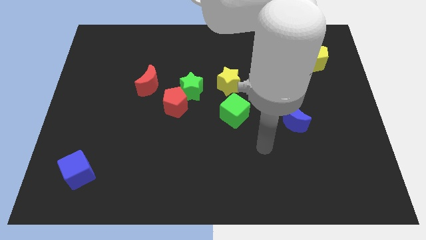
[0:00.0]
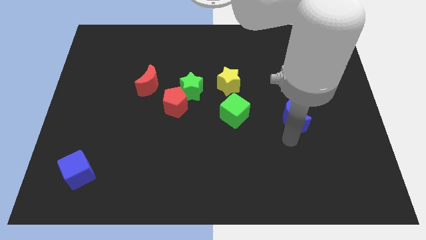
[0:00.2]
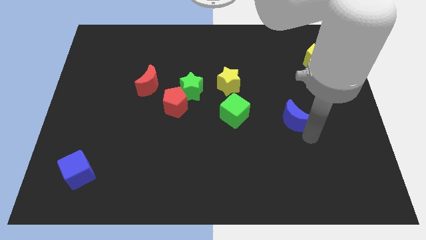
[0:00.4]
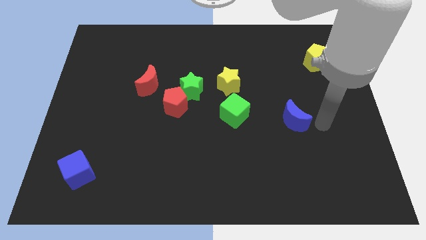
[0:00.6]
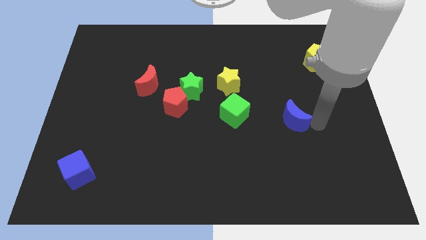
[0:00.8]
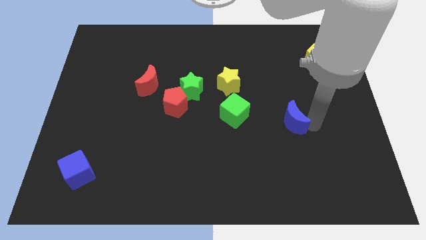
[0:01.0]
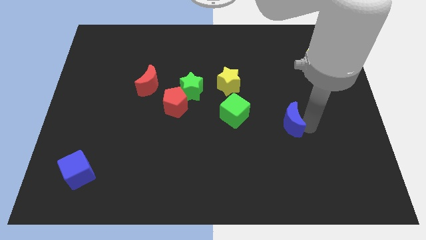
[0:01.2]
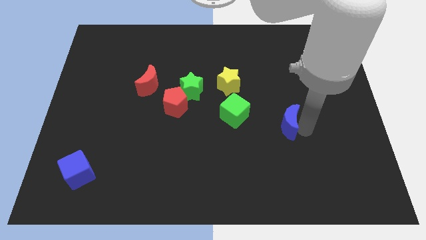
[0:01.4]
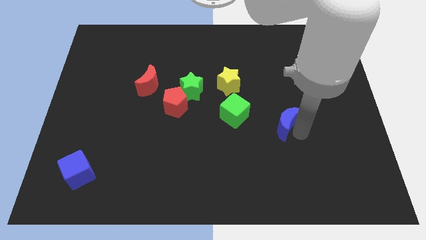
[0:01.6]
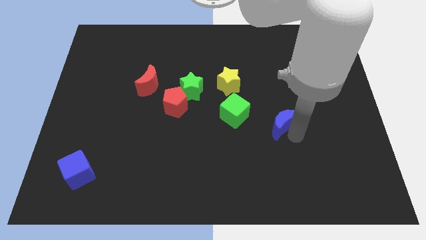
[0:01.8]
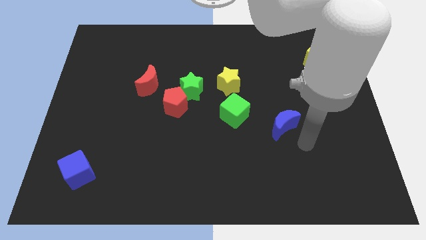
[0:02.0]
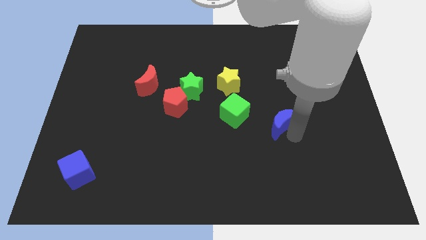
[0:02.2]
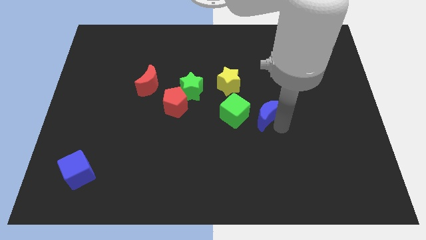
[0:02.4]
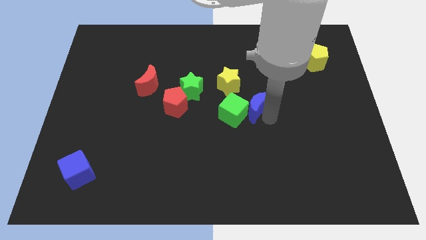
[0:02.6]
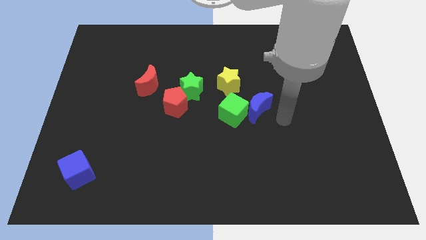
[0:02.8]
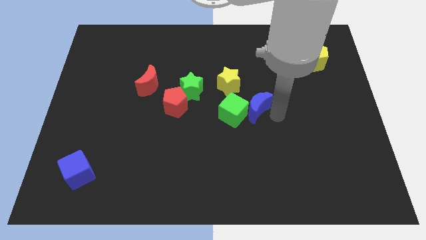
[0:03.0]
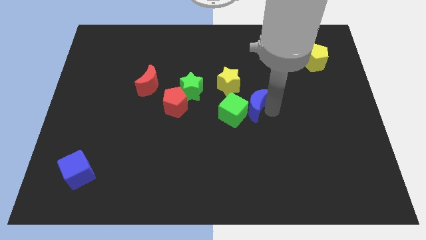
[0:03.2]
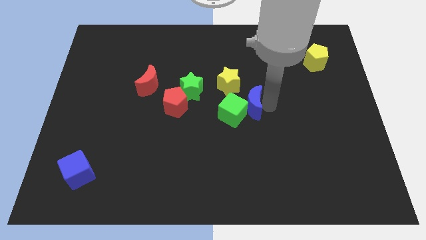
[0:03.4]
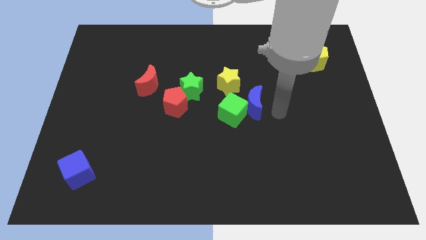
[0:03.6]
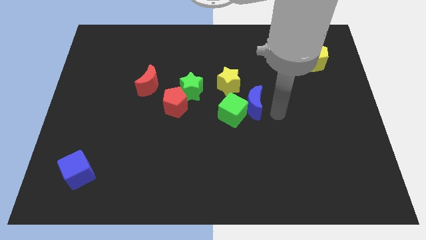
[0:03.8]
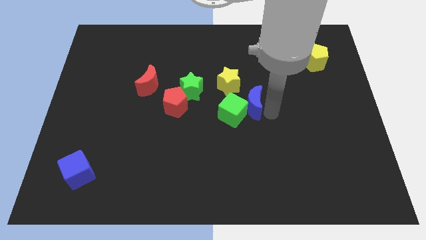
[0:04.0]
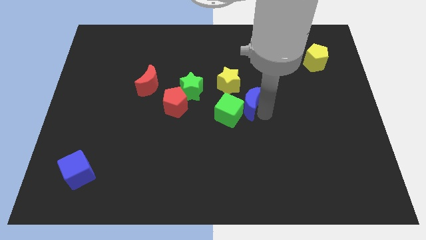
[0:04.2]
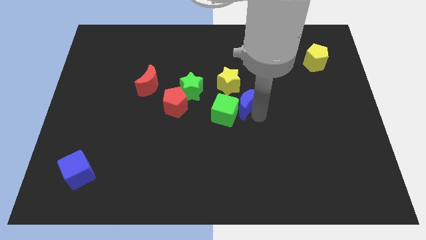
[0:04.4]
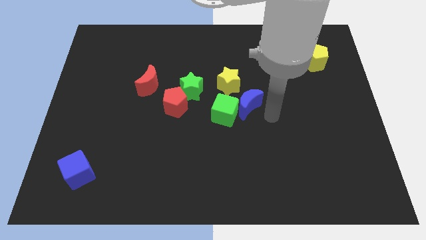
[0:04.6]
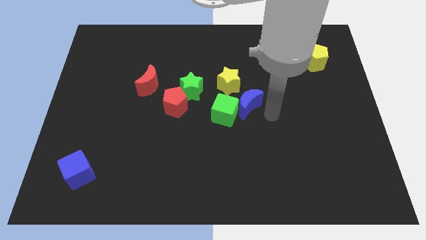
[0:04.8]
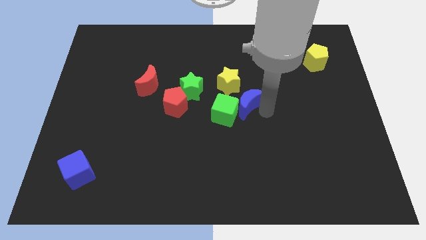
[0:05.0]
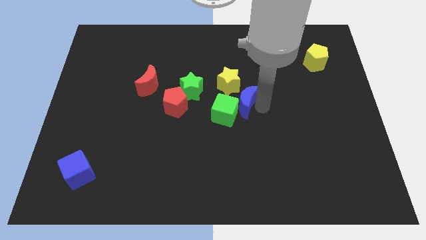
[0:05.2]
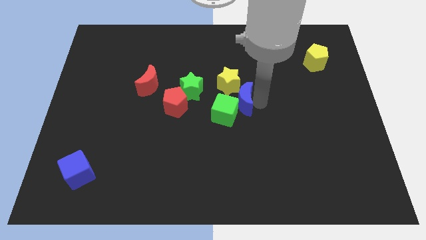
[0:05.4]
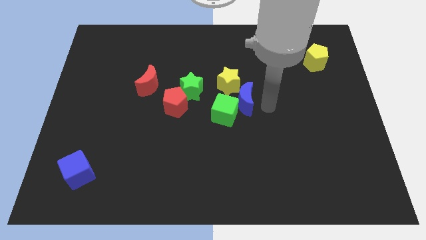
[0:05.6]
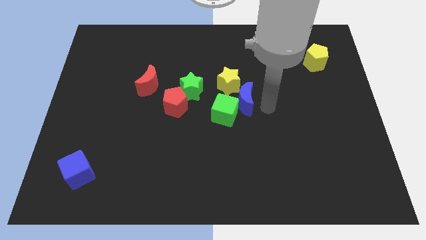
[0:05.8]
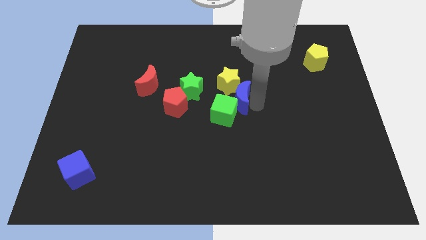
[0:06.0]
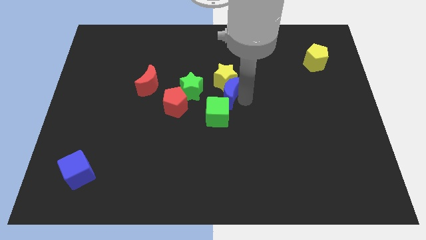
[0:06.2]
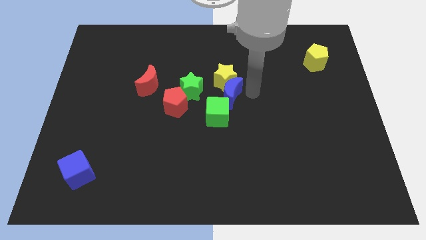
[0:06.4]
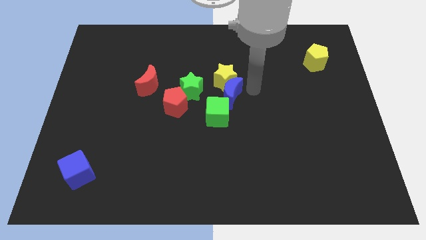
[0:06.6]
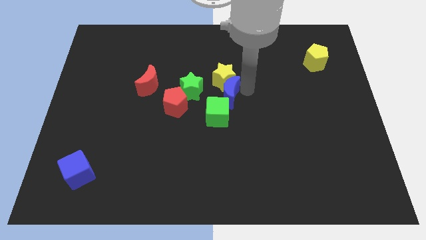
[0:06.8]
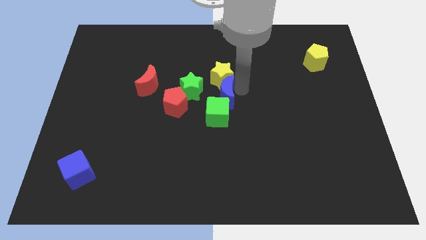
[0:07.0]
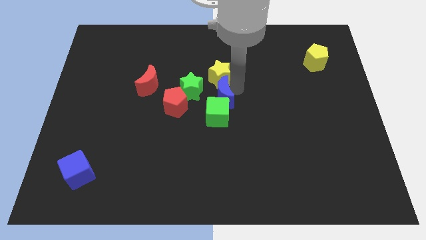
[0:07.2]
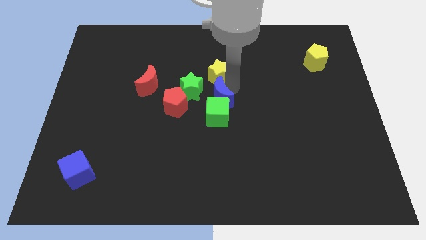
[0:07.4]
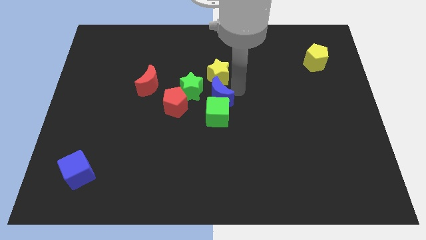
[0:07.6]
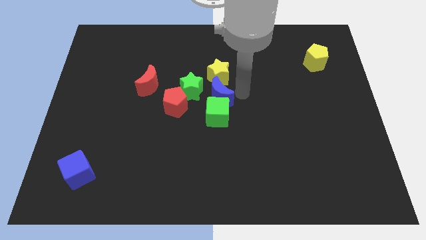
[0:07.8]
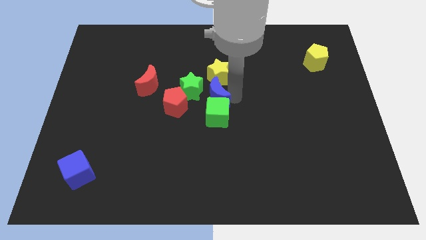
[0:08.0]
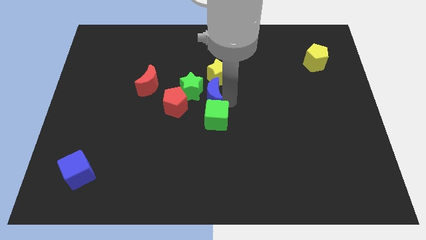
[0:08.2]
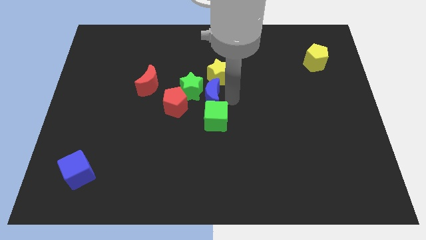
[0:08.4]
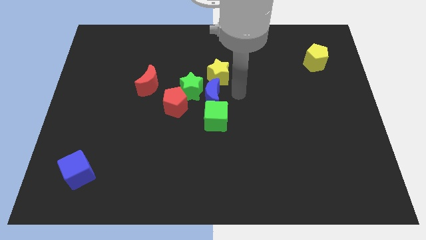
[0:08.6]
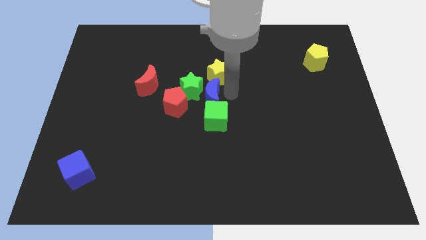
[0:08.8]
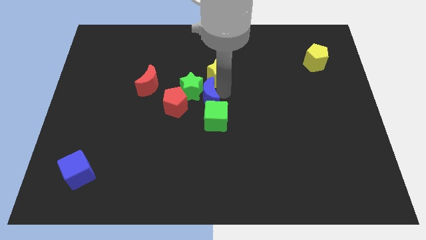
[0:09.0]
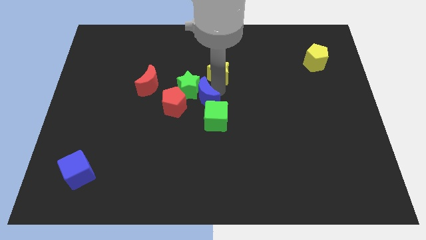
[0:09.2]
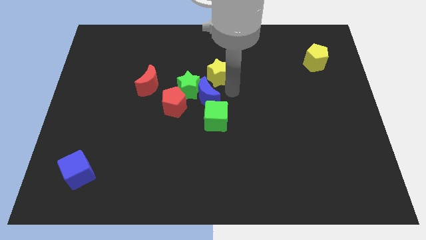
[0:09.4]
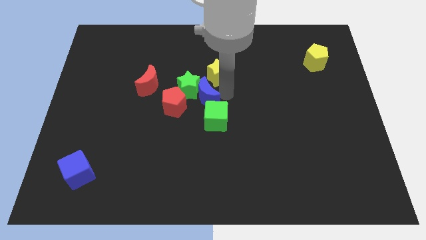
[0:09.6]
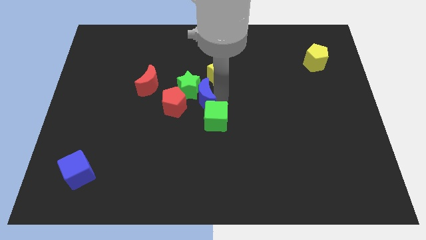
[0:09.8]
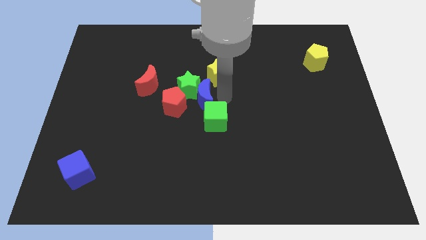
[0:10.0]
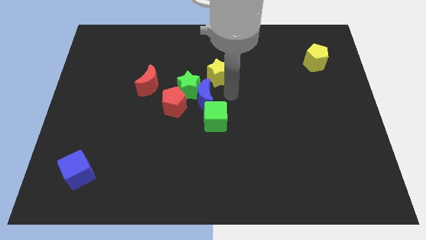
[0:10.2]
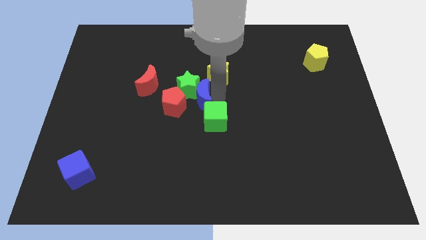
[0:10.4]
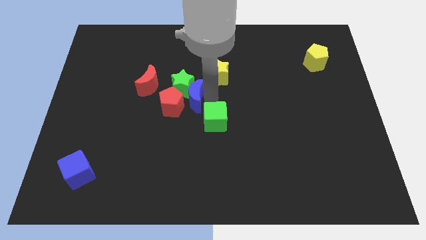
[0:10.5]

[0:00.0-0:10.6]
push the blue moon next to the red pentagon

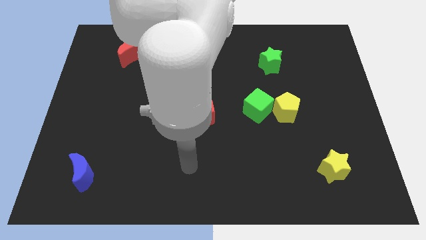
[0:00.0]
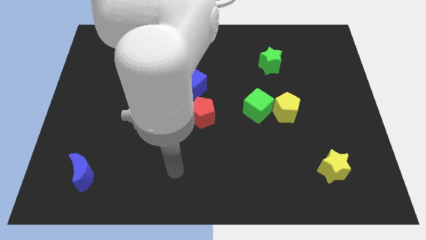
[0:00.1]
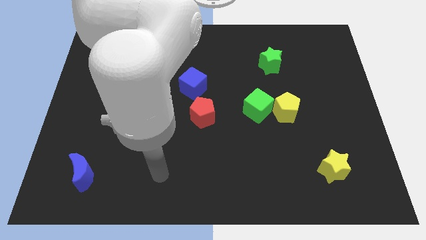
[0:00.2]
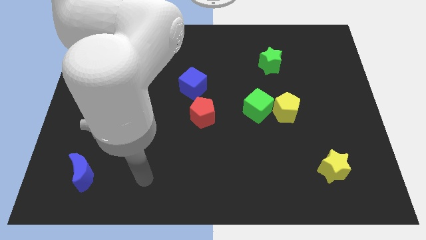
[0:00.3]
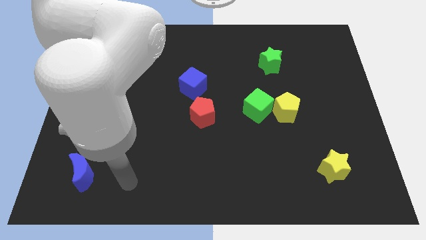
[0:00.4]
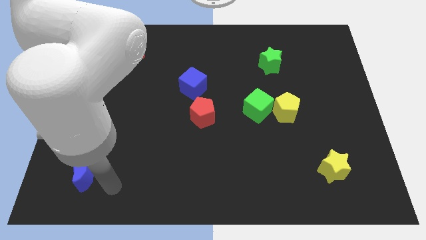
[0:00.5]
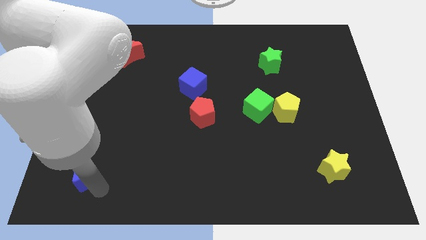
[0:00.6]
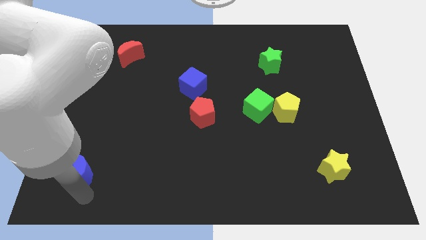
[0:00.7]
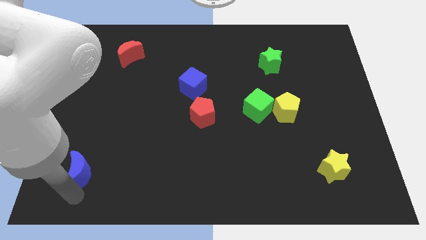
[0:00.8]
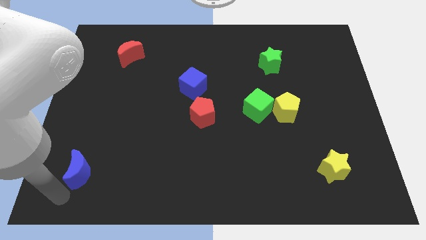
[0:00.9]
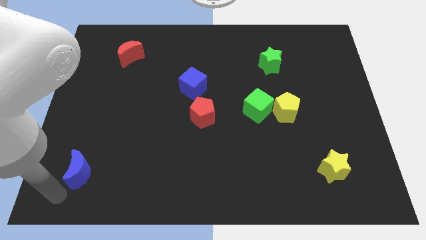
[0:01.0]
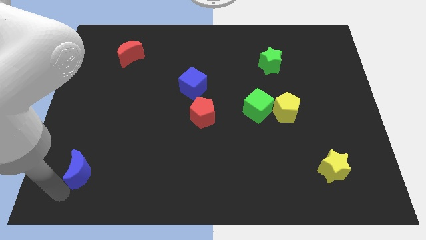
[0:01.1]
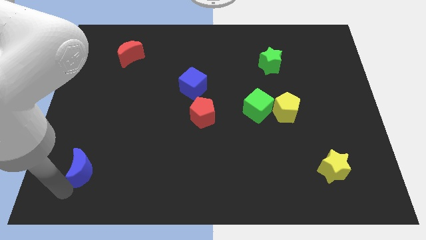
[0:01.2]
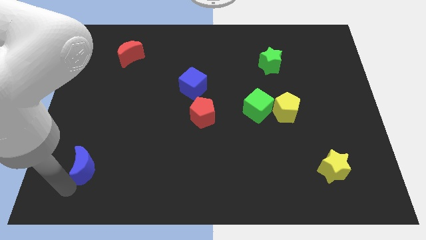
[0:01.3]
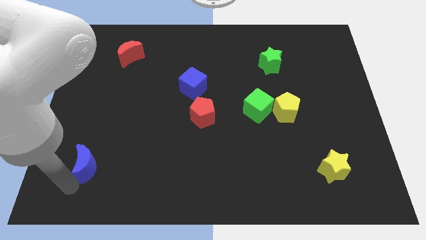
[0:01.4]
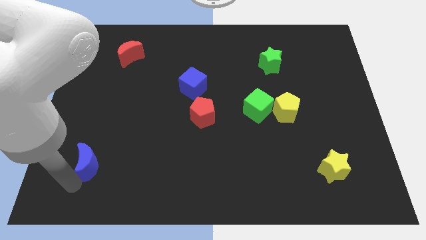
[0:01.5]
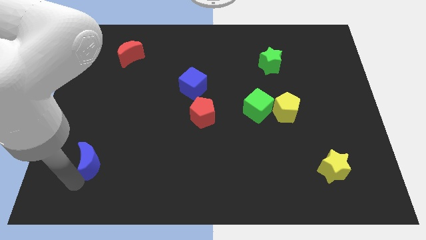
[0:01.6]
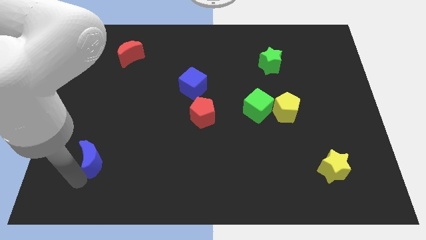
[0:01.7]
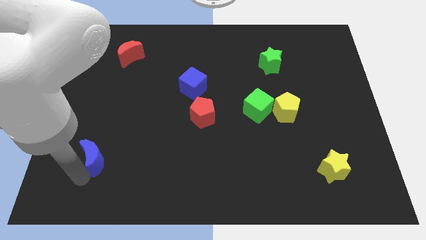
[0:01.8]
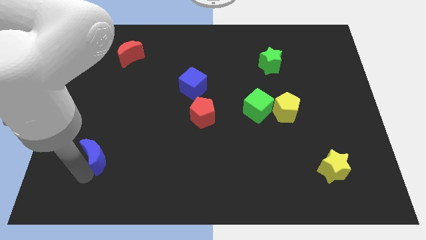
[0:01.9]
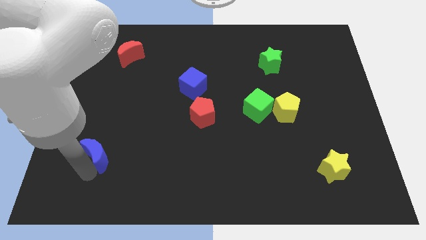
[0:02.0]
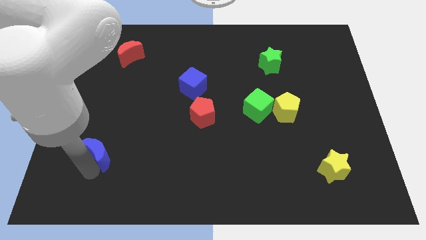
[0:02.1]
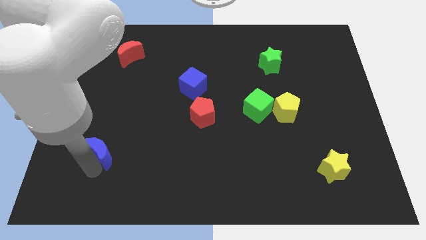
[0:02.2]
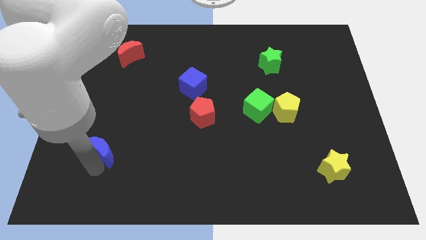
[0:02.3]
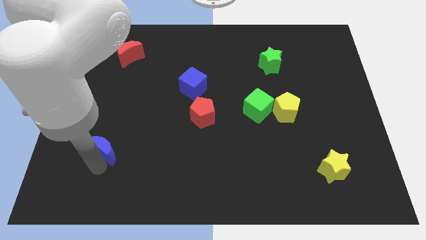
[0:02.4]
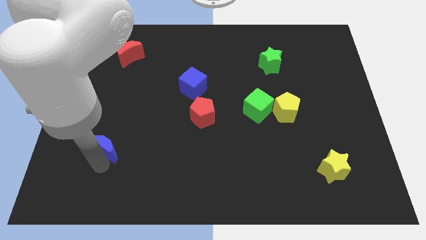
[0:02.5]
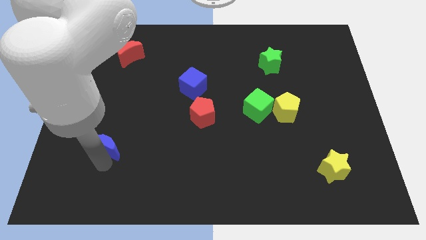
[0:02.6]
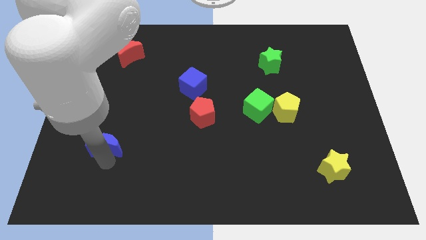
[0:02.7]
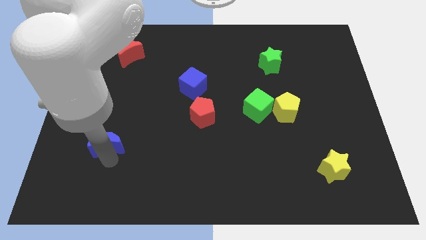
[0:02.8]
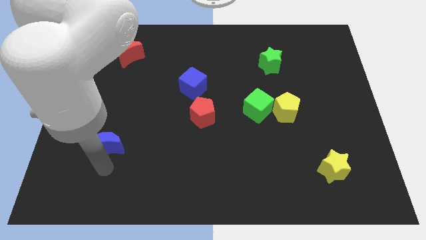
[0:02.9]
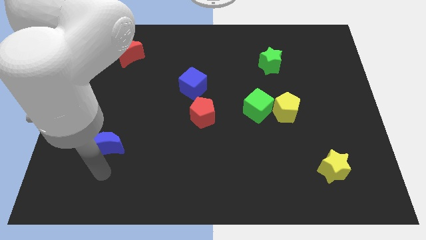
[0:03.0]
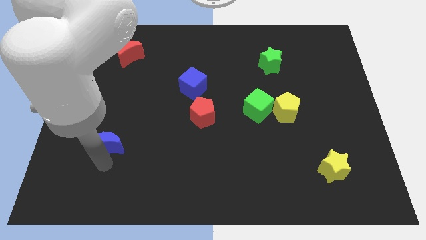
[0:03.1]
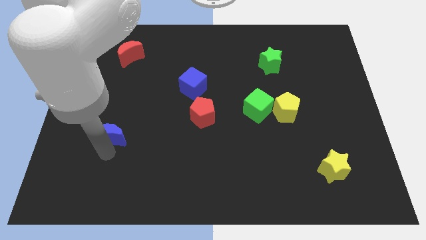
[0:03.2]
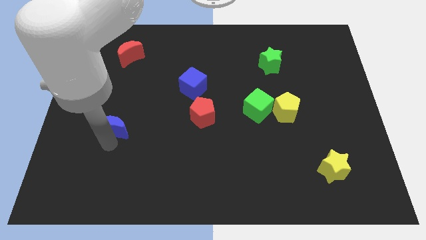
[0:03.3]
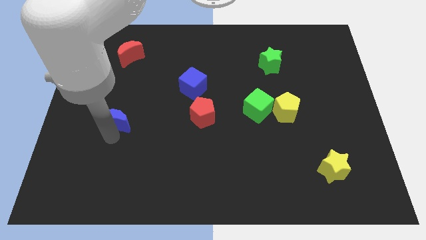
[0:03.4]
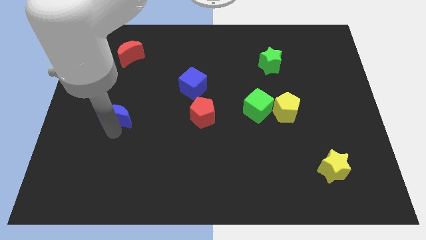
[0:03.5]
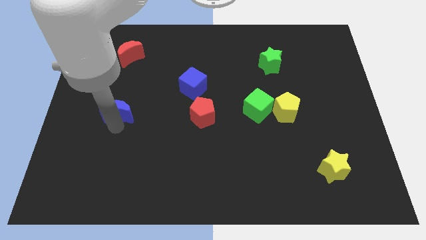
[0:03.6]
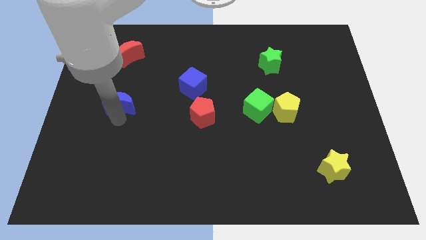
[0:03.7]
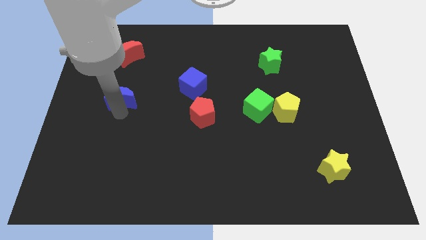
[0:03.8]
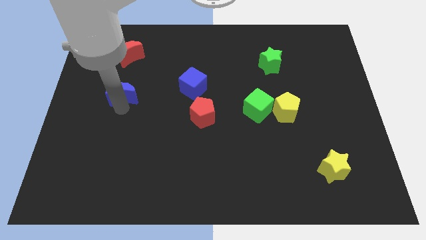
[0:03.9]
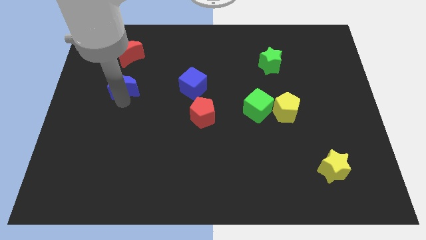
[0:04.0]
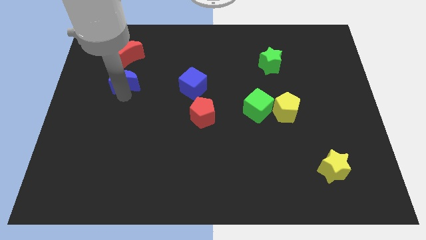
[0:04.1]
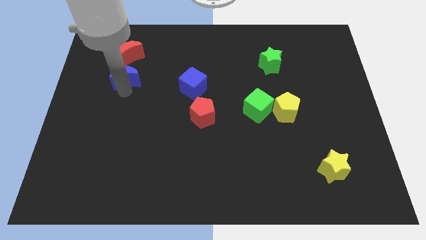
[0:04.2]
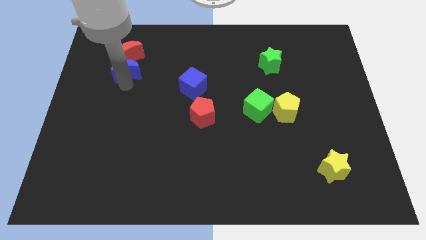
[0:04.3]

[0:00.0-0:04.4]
push the blue moon close to the red moon
